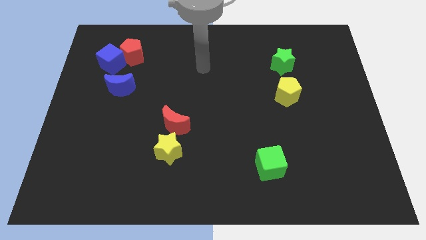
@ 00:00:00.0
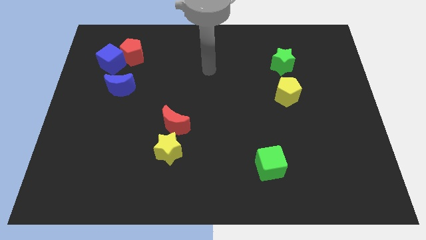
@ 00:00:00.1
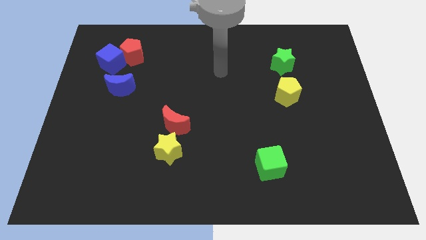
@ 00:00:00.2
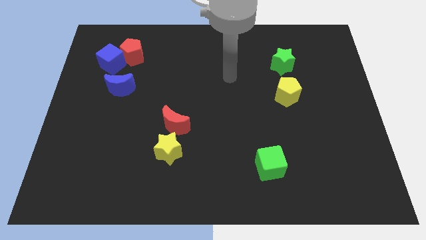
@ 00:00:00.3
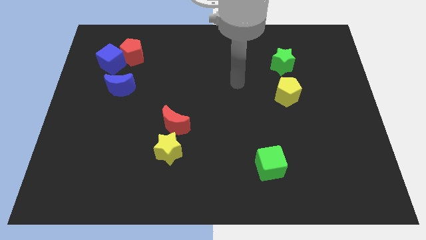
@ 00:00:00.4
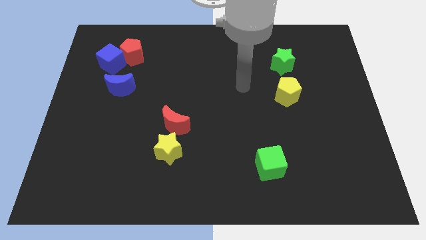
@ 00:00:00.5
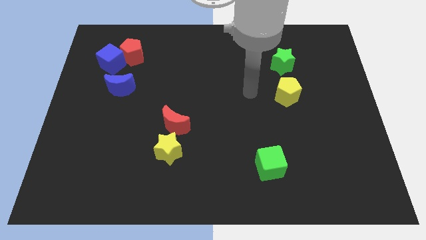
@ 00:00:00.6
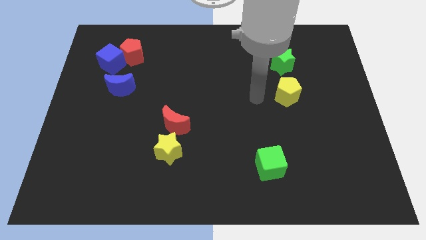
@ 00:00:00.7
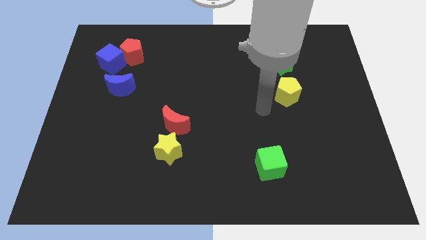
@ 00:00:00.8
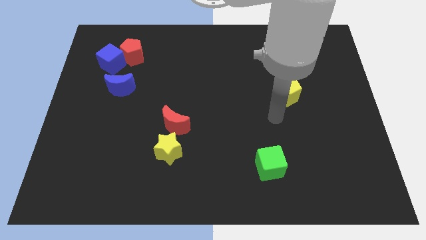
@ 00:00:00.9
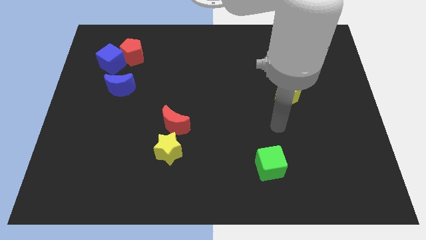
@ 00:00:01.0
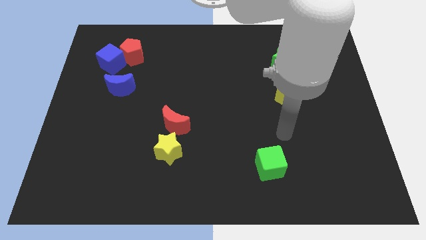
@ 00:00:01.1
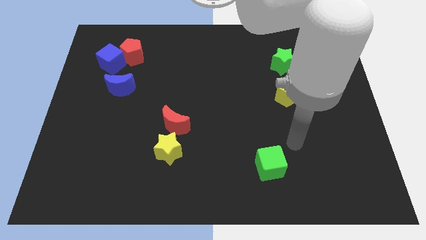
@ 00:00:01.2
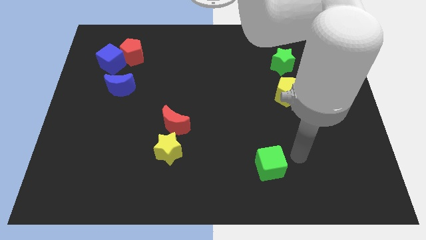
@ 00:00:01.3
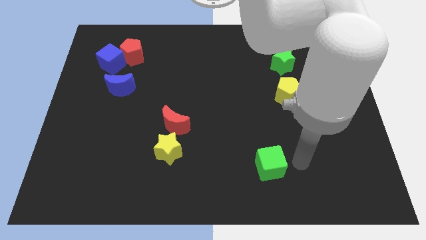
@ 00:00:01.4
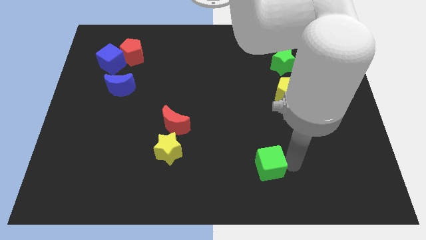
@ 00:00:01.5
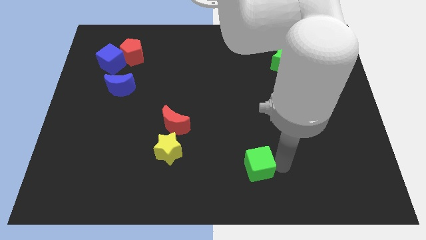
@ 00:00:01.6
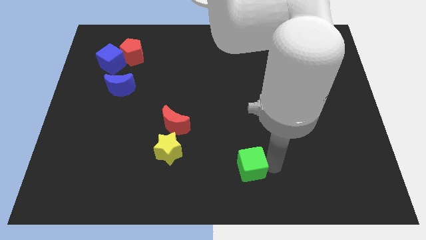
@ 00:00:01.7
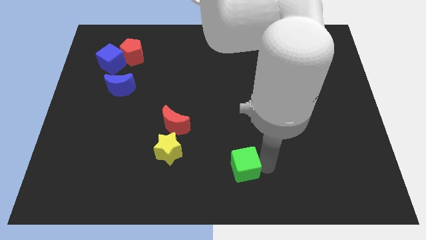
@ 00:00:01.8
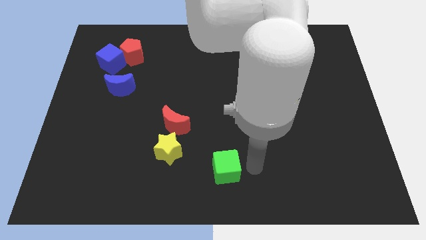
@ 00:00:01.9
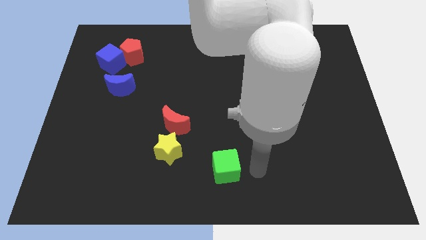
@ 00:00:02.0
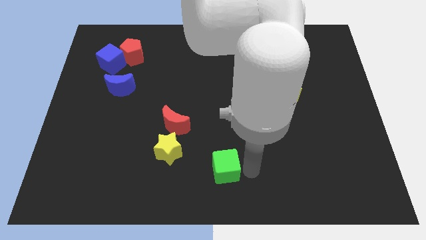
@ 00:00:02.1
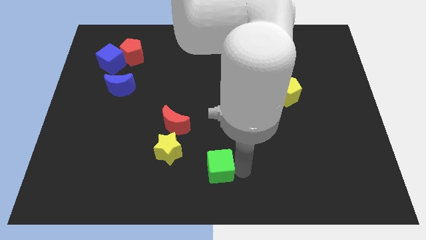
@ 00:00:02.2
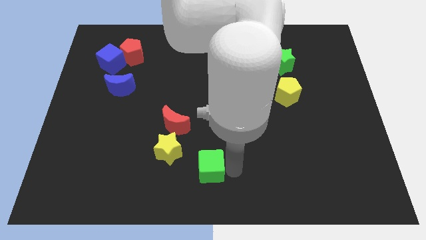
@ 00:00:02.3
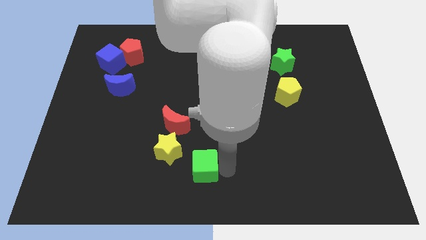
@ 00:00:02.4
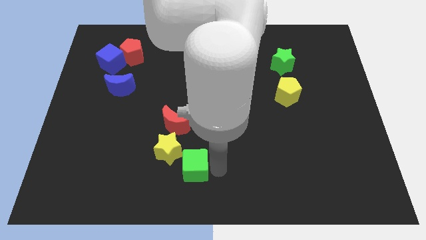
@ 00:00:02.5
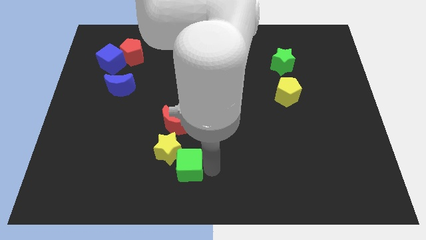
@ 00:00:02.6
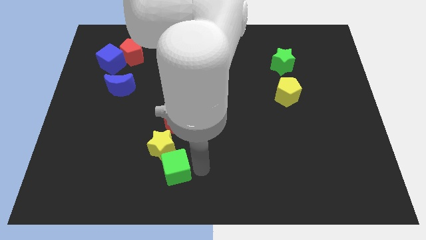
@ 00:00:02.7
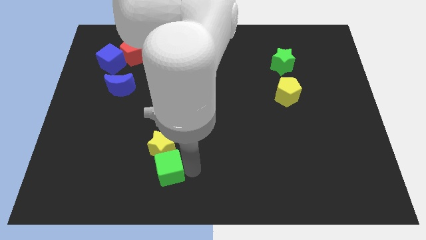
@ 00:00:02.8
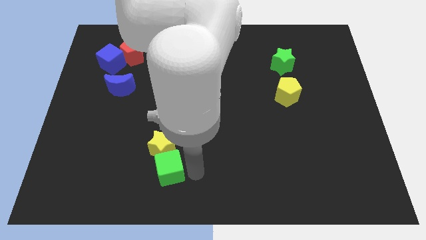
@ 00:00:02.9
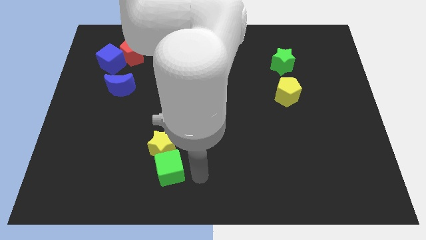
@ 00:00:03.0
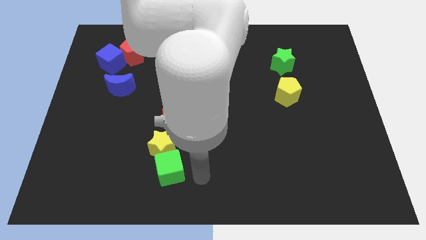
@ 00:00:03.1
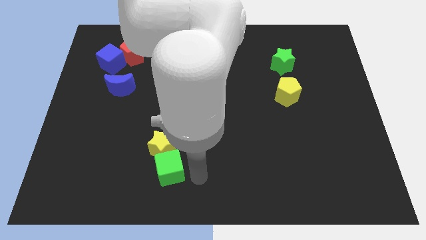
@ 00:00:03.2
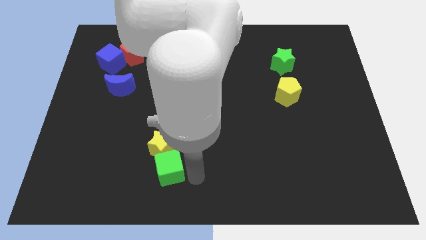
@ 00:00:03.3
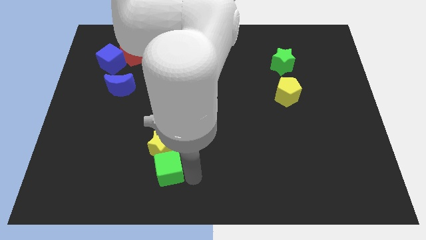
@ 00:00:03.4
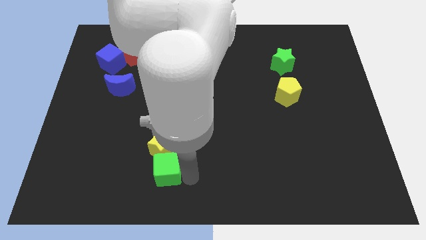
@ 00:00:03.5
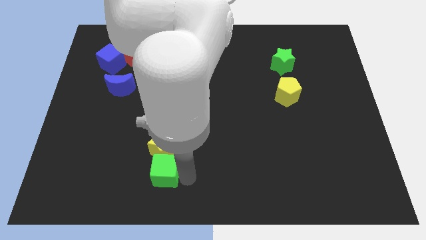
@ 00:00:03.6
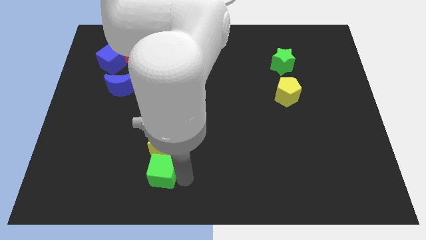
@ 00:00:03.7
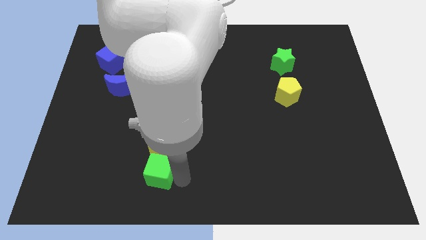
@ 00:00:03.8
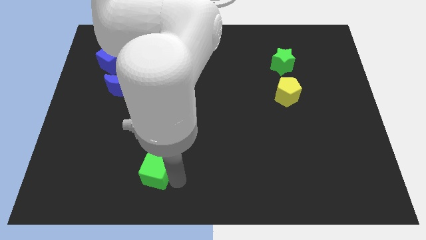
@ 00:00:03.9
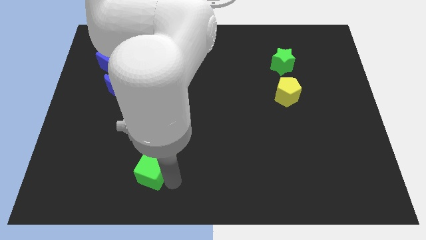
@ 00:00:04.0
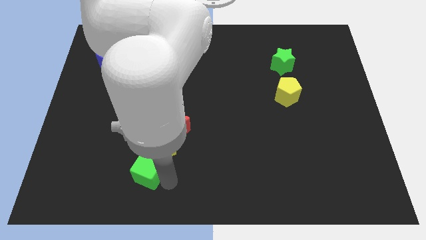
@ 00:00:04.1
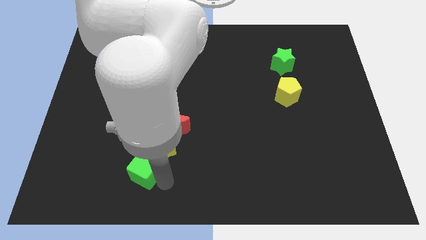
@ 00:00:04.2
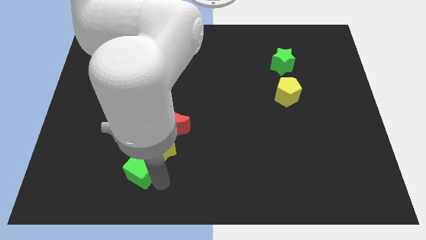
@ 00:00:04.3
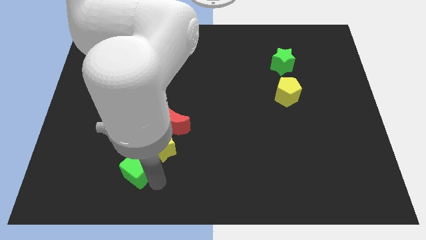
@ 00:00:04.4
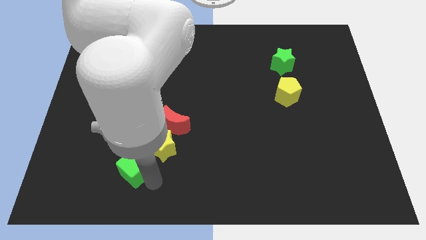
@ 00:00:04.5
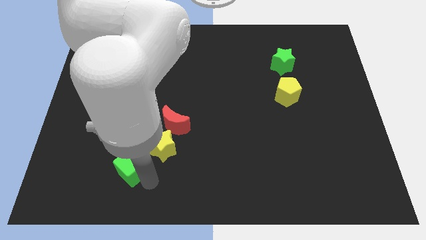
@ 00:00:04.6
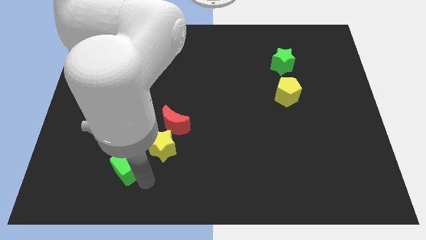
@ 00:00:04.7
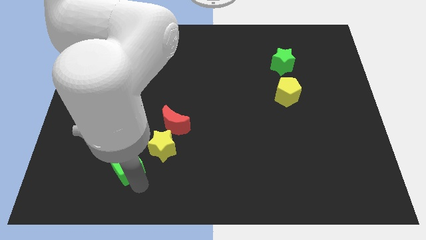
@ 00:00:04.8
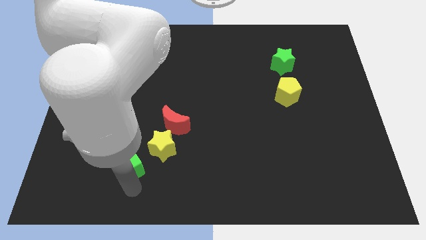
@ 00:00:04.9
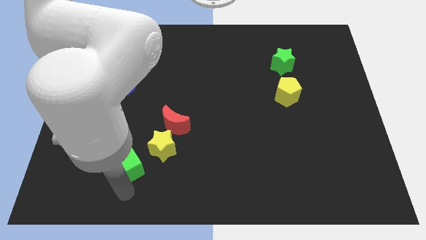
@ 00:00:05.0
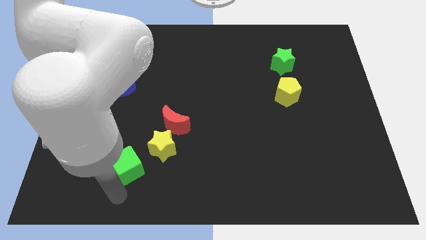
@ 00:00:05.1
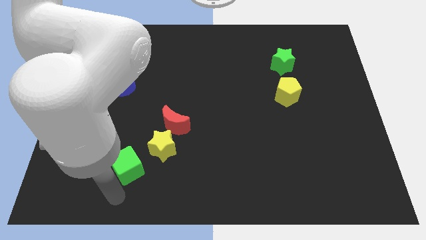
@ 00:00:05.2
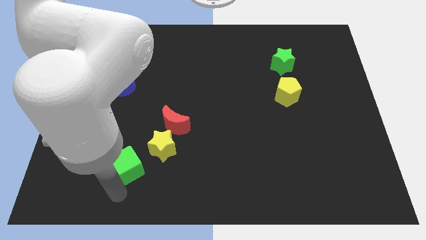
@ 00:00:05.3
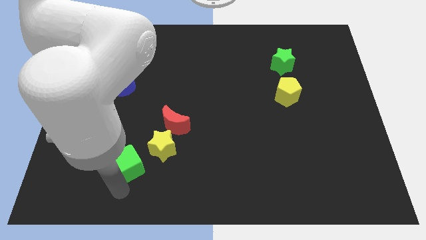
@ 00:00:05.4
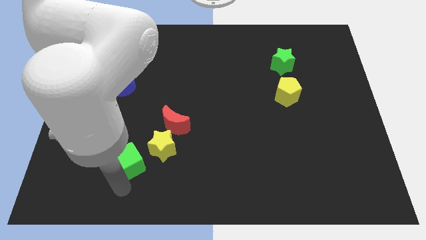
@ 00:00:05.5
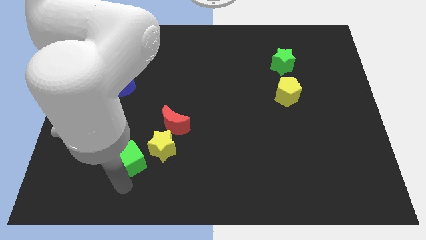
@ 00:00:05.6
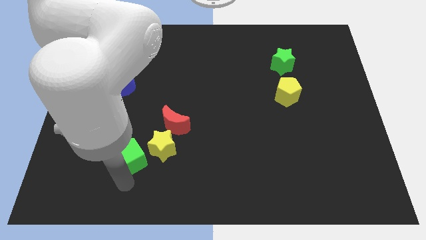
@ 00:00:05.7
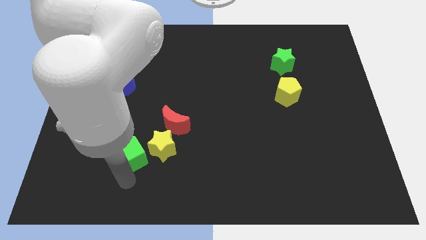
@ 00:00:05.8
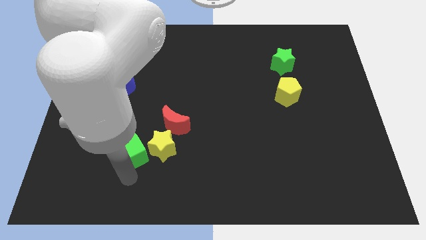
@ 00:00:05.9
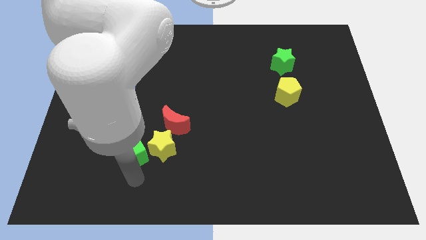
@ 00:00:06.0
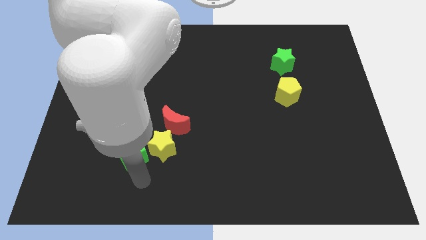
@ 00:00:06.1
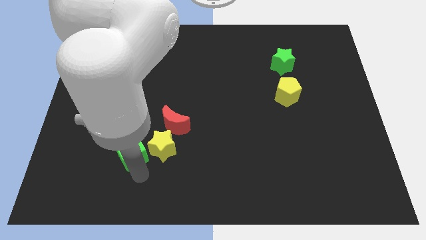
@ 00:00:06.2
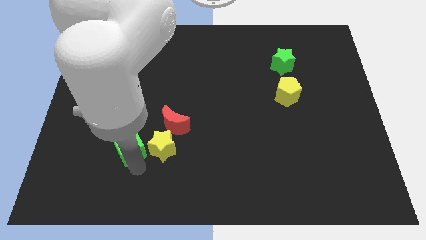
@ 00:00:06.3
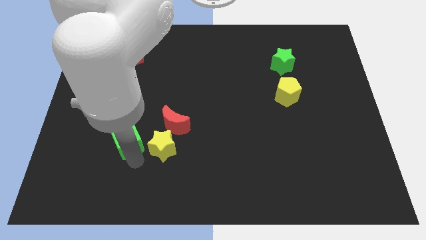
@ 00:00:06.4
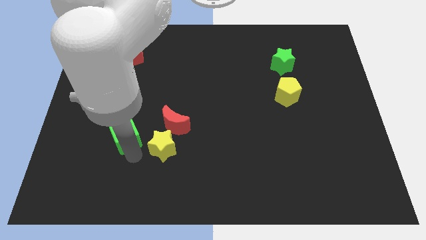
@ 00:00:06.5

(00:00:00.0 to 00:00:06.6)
push the green cube to the bottom of the blue moon

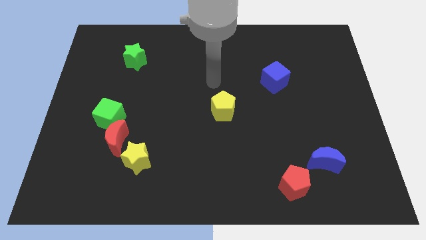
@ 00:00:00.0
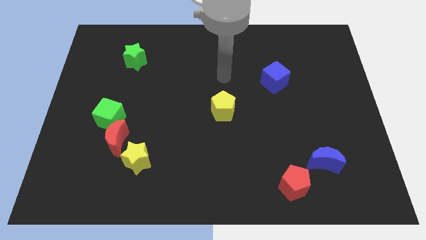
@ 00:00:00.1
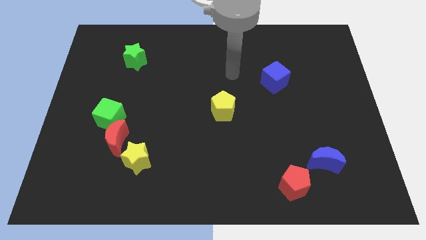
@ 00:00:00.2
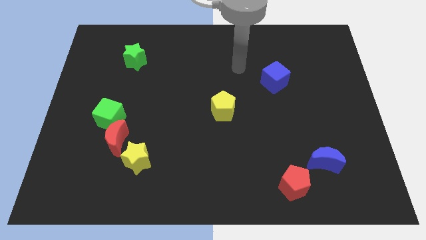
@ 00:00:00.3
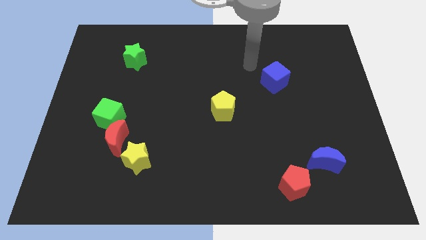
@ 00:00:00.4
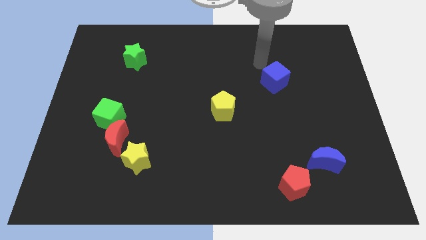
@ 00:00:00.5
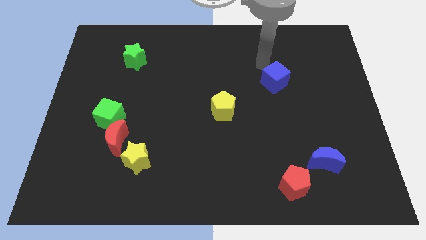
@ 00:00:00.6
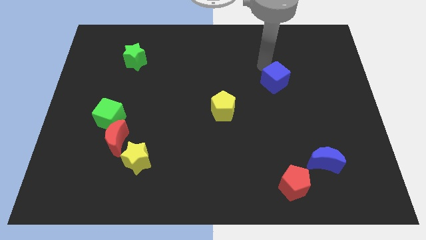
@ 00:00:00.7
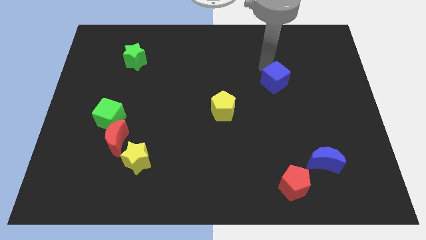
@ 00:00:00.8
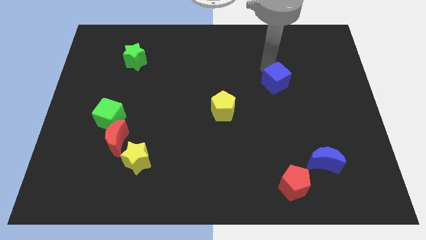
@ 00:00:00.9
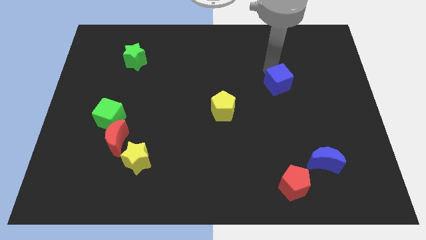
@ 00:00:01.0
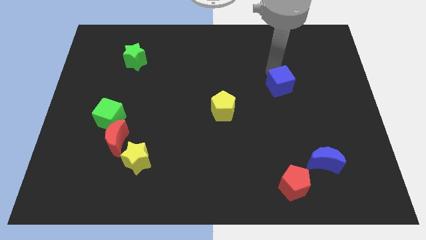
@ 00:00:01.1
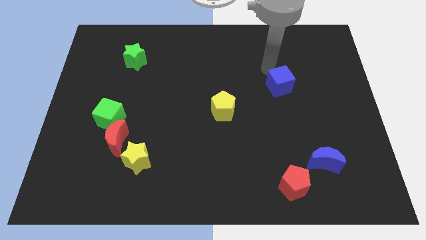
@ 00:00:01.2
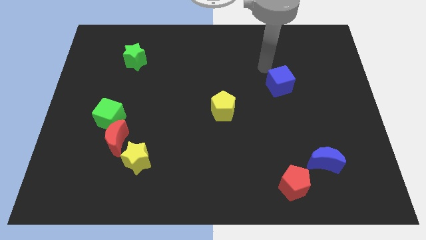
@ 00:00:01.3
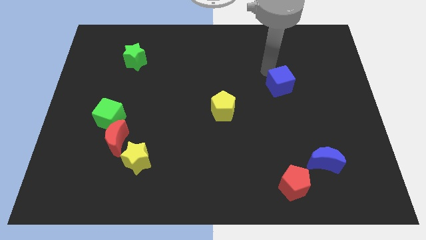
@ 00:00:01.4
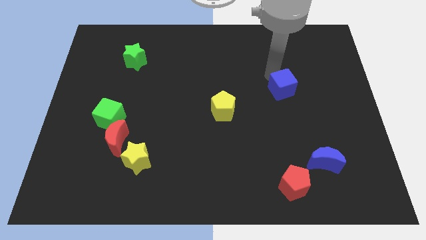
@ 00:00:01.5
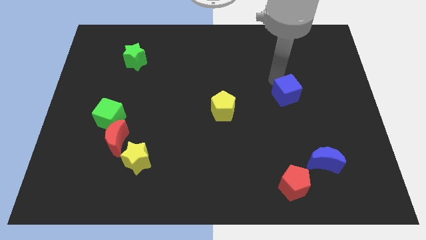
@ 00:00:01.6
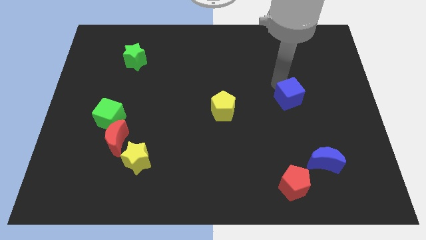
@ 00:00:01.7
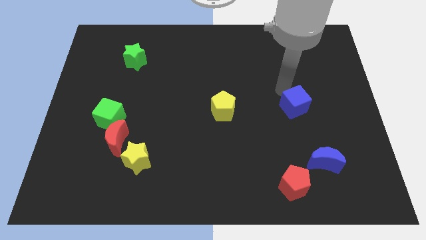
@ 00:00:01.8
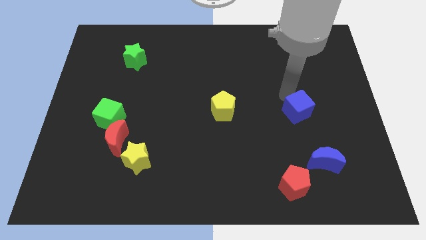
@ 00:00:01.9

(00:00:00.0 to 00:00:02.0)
put the blue cube to the top of the blue moon
